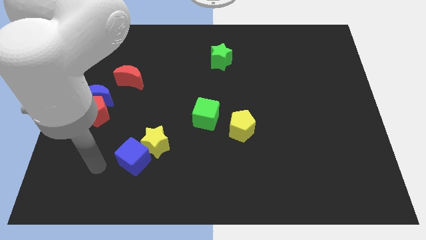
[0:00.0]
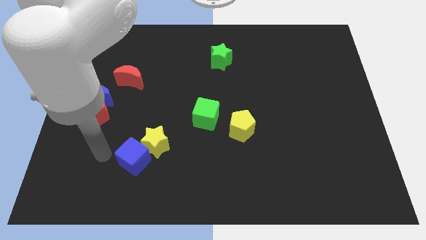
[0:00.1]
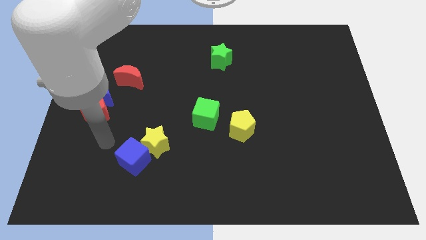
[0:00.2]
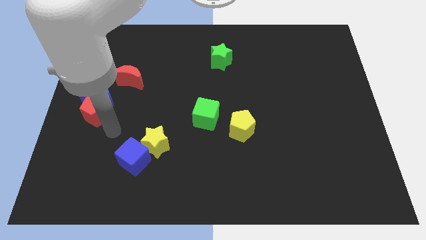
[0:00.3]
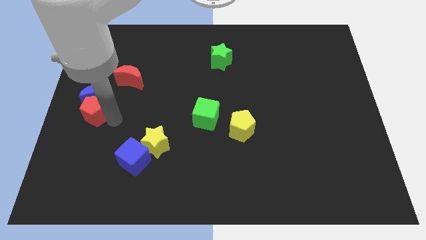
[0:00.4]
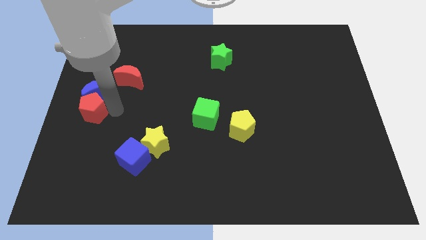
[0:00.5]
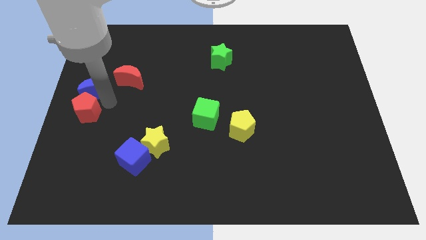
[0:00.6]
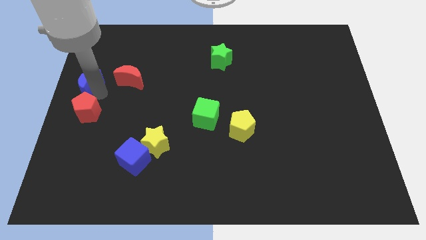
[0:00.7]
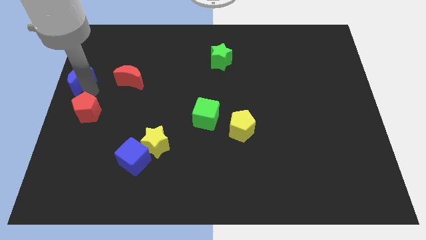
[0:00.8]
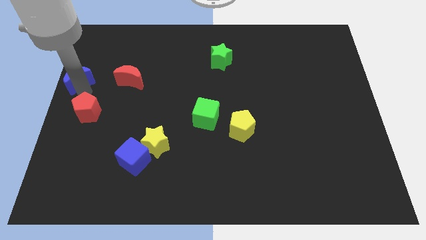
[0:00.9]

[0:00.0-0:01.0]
separate the red pentagon from the blue moon

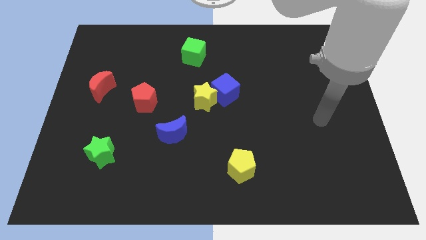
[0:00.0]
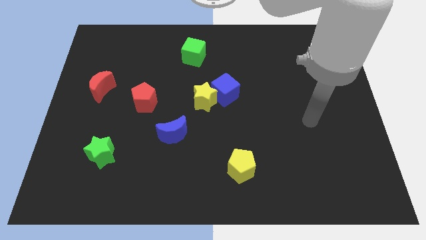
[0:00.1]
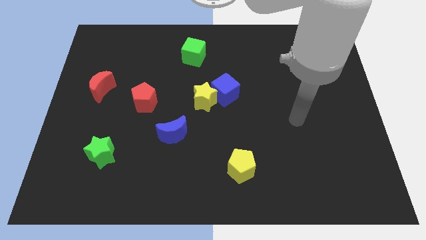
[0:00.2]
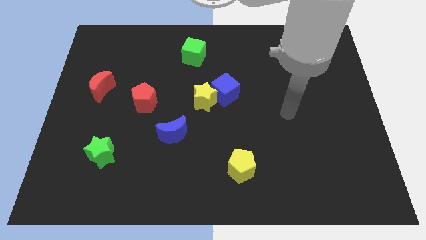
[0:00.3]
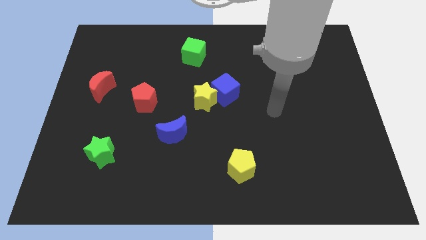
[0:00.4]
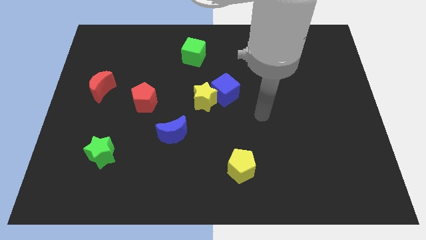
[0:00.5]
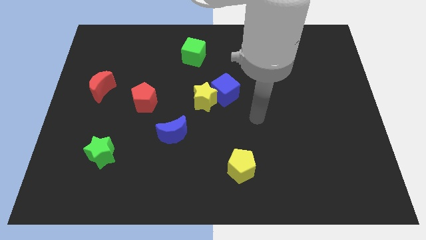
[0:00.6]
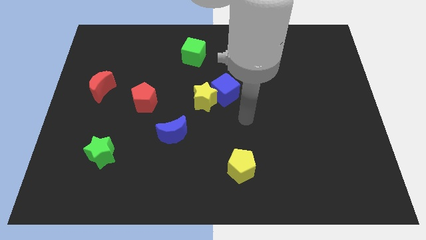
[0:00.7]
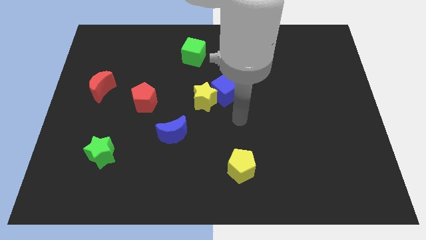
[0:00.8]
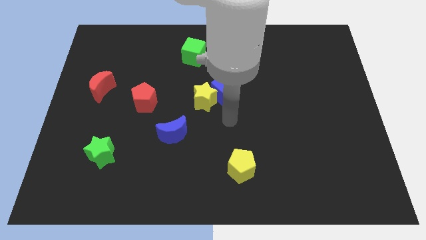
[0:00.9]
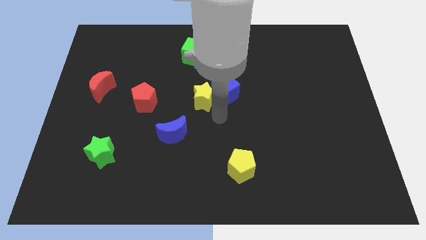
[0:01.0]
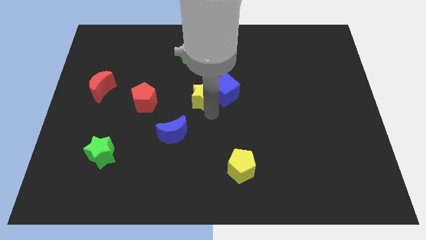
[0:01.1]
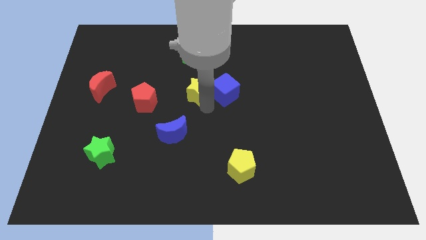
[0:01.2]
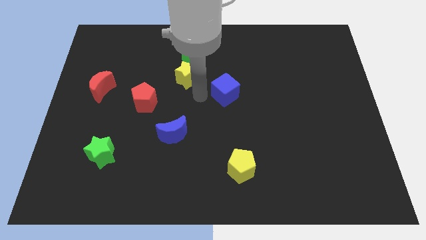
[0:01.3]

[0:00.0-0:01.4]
pull the blue cube apart from the yellow star

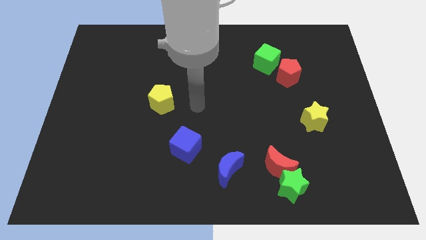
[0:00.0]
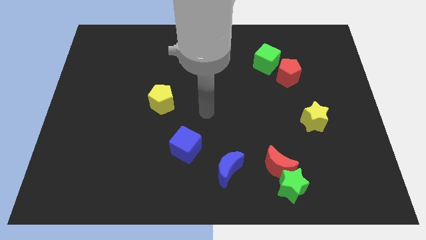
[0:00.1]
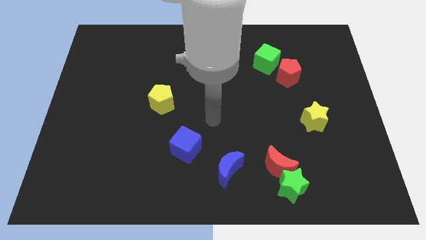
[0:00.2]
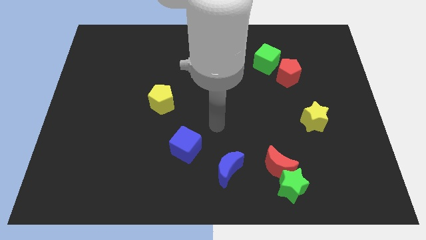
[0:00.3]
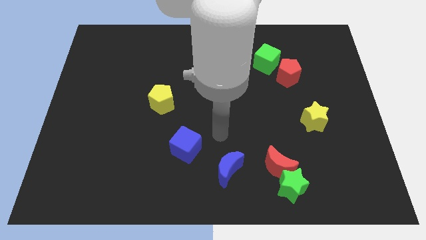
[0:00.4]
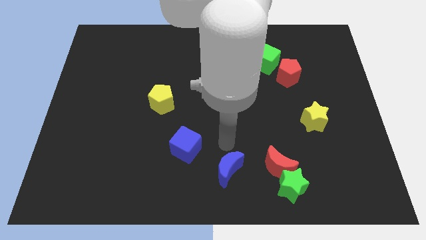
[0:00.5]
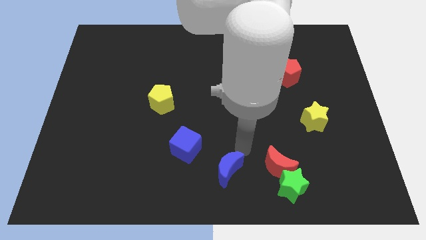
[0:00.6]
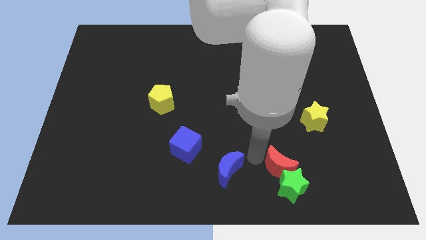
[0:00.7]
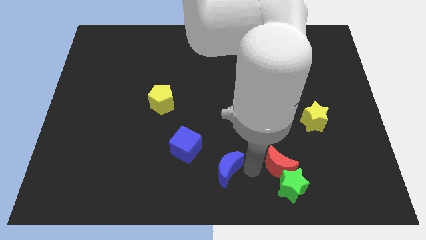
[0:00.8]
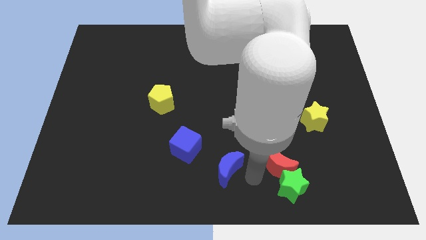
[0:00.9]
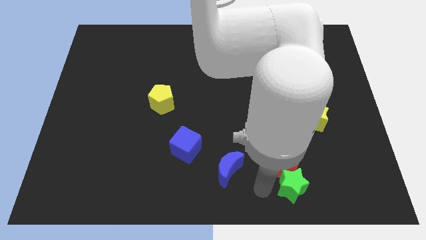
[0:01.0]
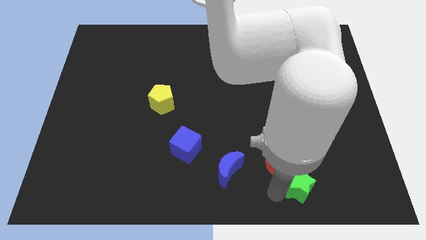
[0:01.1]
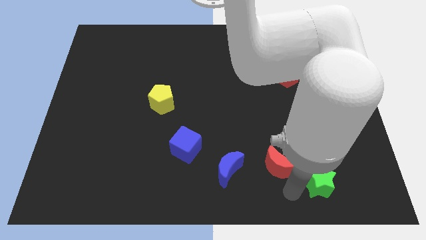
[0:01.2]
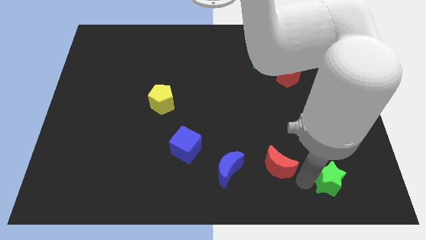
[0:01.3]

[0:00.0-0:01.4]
pull the red moon apart from the green star

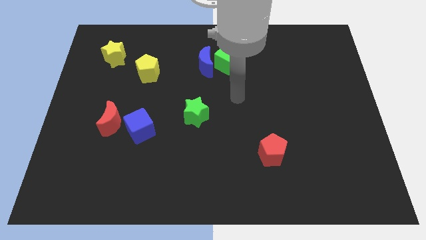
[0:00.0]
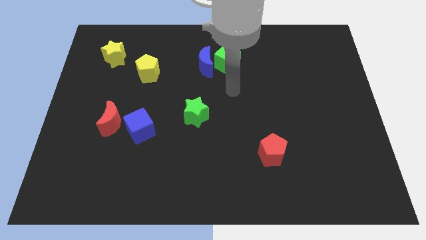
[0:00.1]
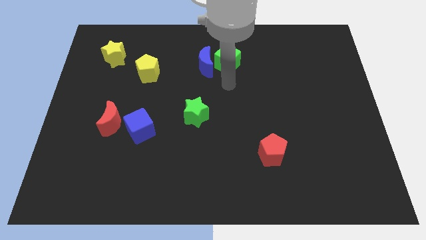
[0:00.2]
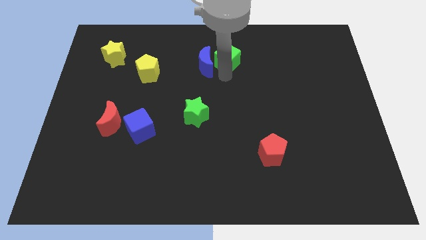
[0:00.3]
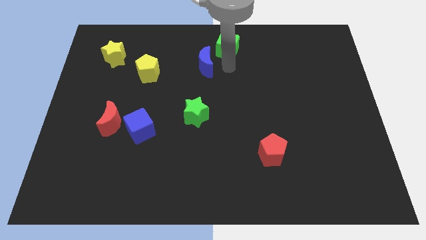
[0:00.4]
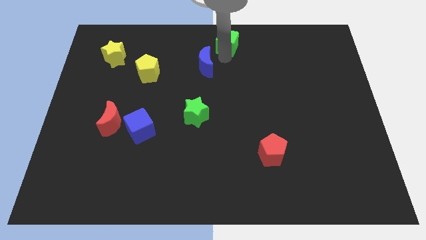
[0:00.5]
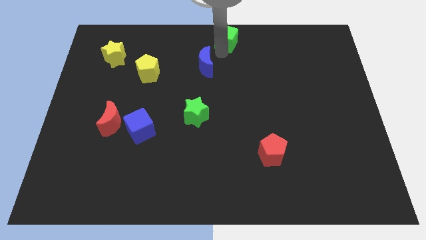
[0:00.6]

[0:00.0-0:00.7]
move the blue moon away from the green cube

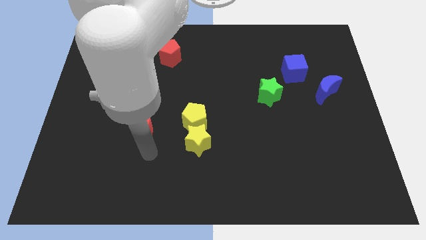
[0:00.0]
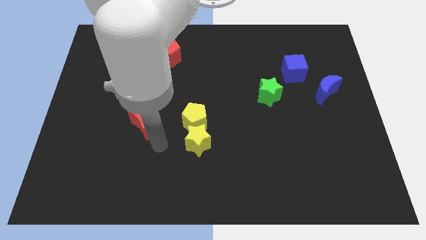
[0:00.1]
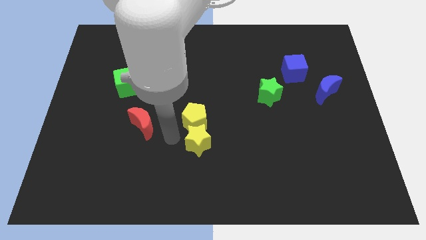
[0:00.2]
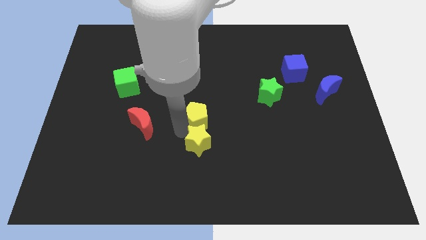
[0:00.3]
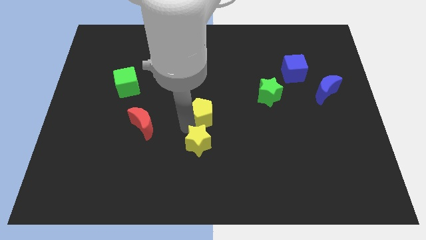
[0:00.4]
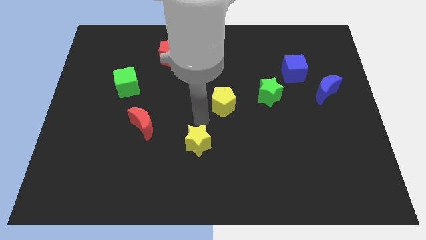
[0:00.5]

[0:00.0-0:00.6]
separate the yellow star from the yellow pentagon

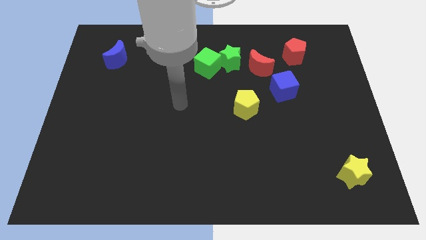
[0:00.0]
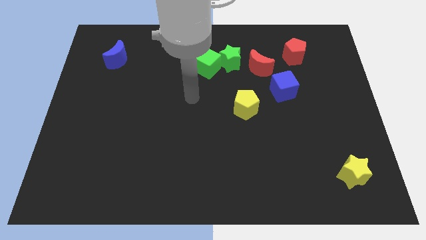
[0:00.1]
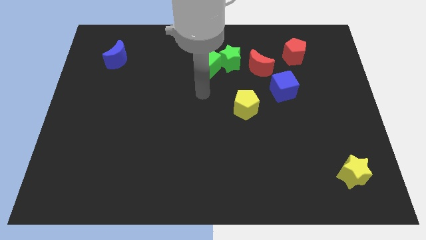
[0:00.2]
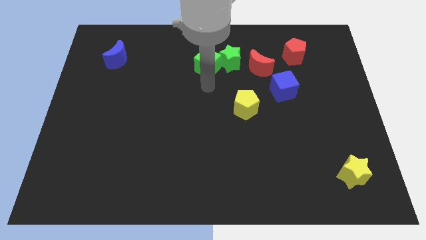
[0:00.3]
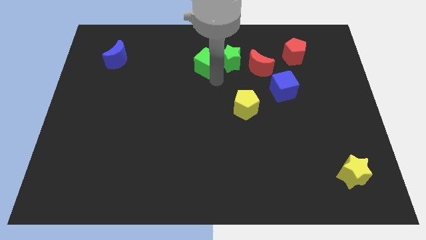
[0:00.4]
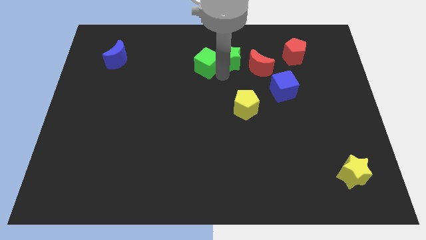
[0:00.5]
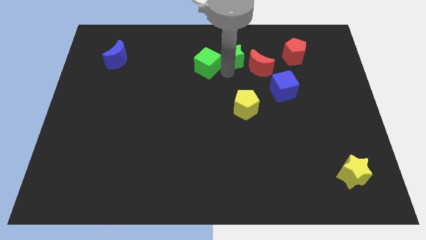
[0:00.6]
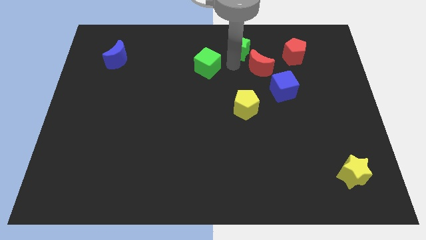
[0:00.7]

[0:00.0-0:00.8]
separate the green cube from the green star

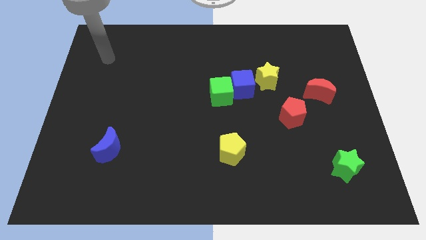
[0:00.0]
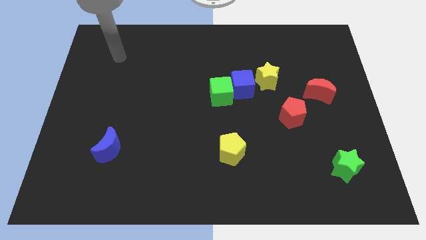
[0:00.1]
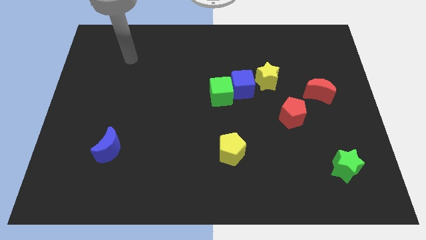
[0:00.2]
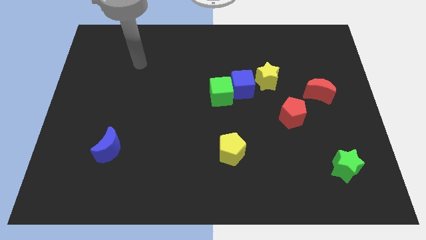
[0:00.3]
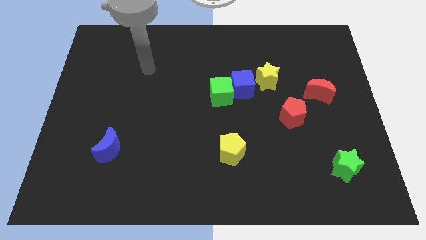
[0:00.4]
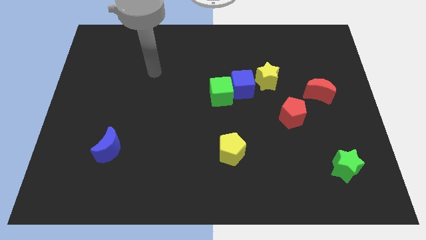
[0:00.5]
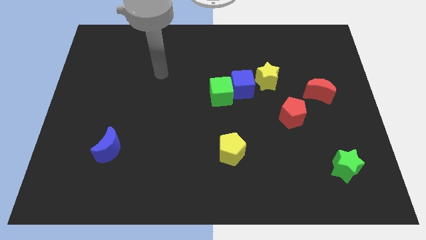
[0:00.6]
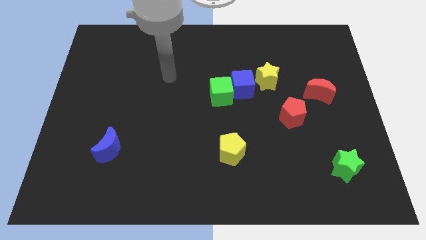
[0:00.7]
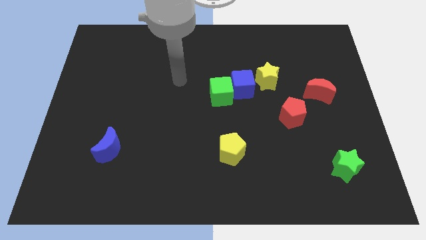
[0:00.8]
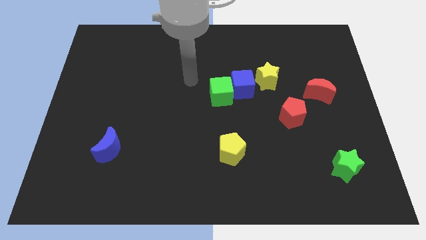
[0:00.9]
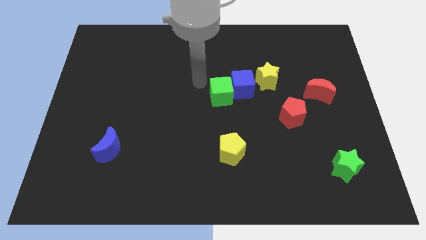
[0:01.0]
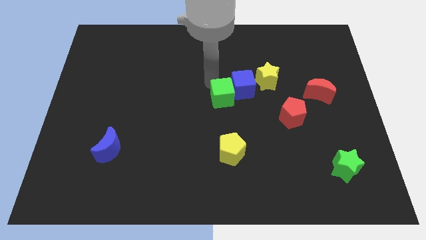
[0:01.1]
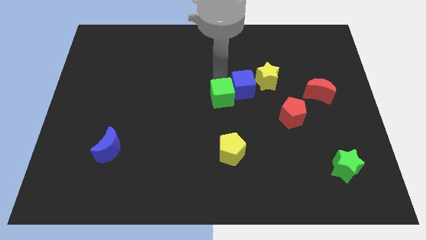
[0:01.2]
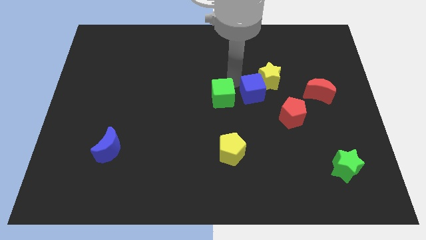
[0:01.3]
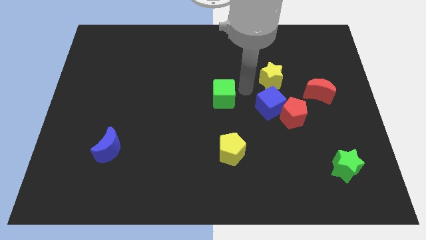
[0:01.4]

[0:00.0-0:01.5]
separate the green cube from the blue cube

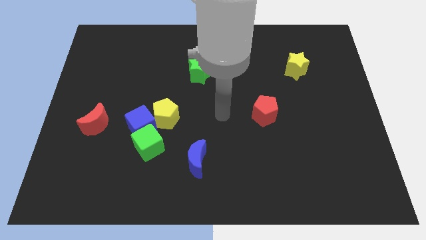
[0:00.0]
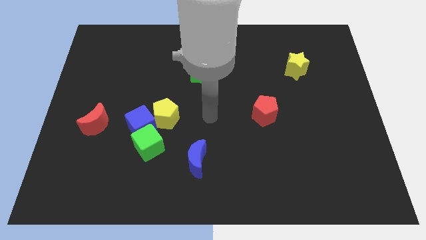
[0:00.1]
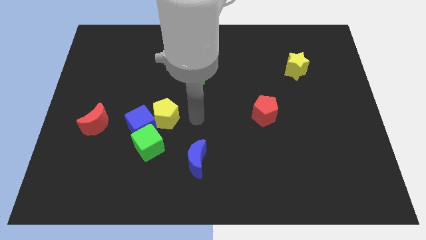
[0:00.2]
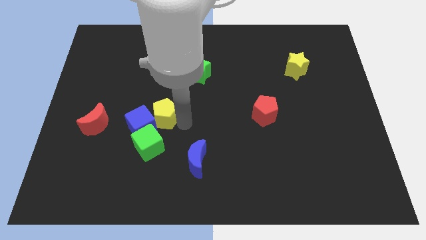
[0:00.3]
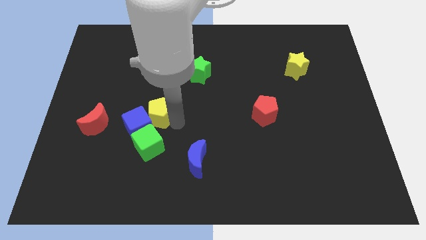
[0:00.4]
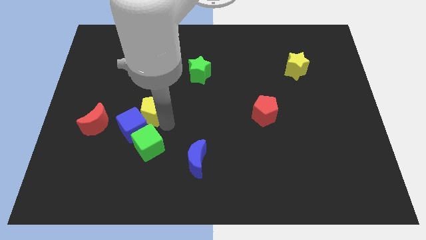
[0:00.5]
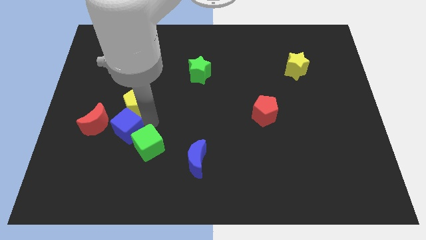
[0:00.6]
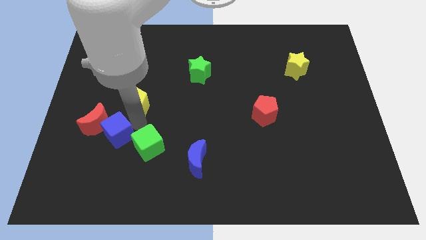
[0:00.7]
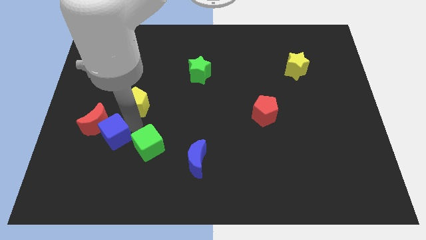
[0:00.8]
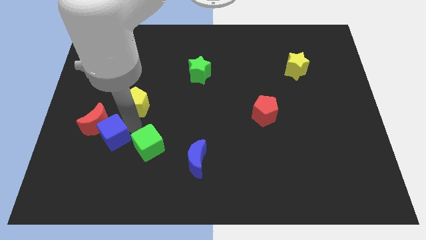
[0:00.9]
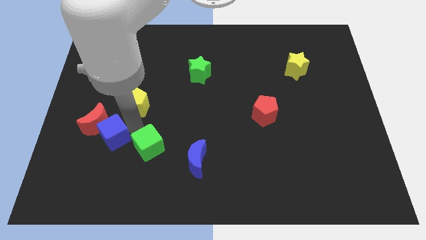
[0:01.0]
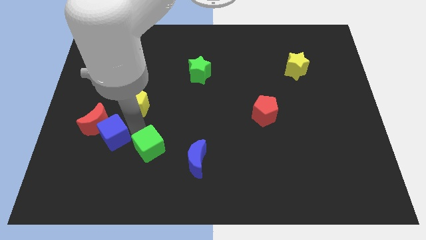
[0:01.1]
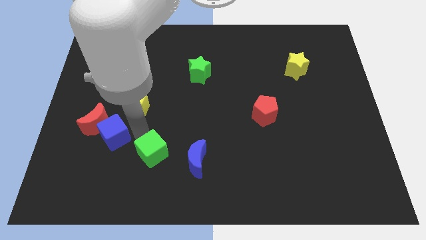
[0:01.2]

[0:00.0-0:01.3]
separate the green cube from the blue cube and yellow pentagon

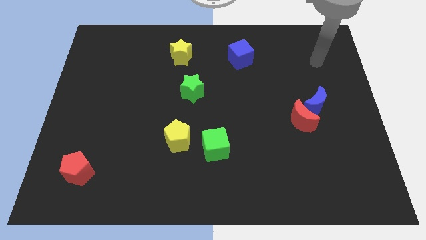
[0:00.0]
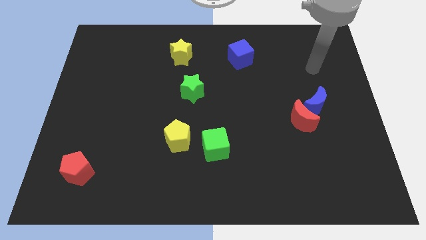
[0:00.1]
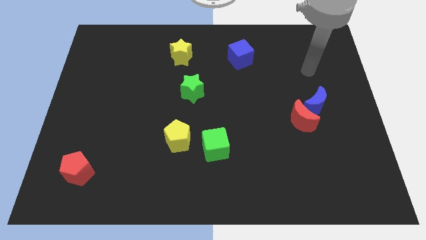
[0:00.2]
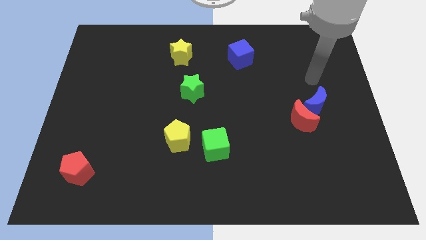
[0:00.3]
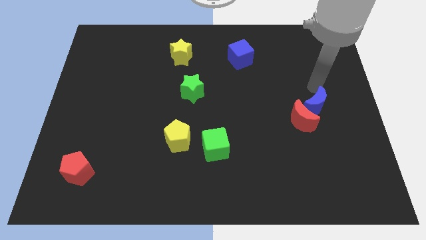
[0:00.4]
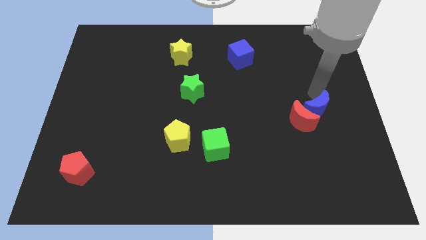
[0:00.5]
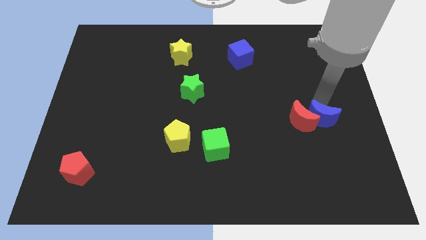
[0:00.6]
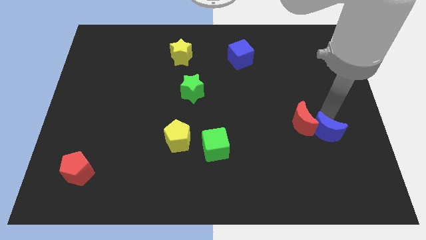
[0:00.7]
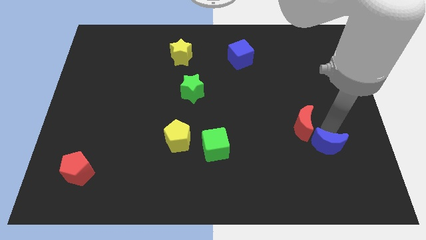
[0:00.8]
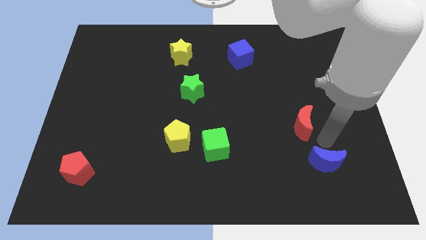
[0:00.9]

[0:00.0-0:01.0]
move the red moon away from the blue moon
